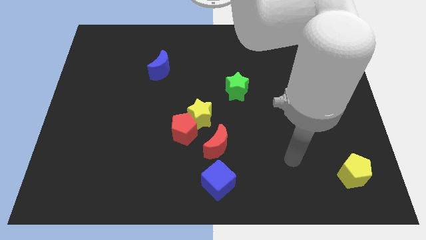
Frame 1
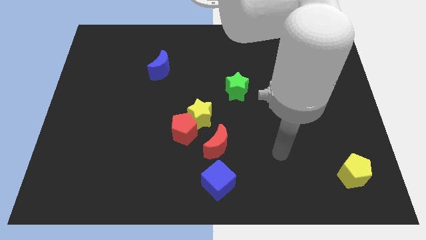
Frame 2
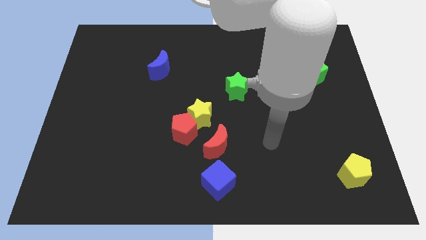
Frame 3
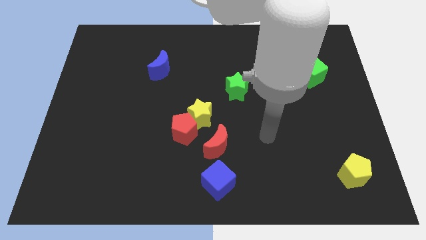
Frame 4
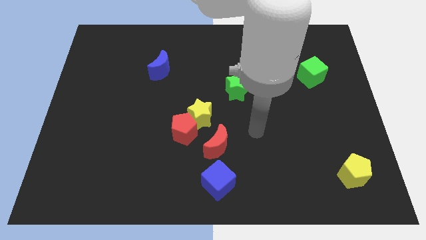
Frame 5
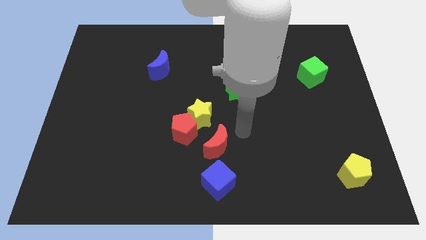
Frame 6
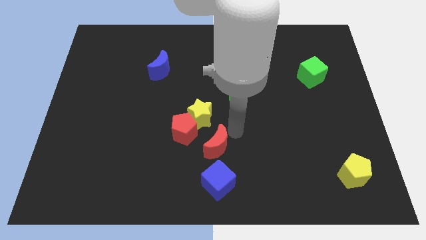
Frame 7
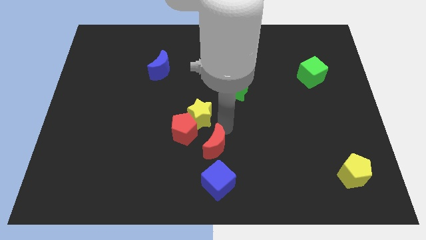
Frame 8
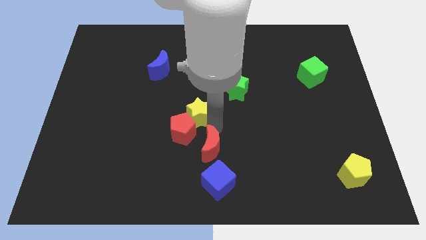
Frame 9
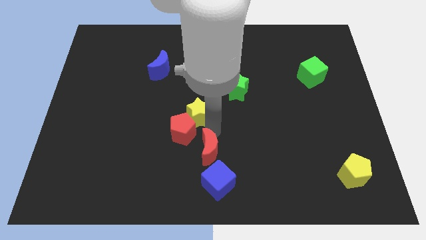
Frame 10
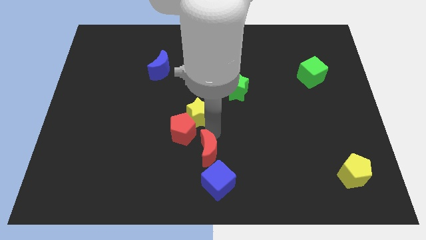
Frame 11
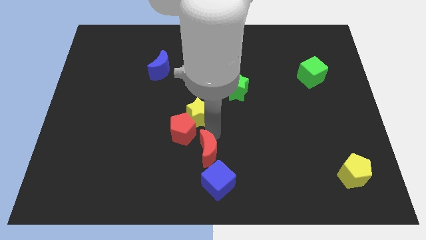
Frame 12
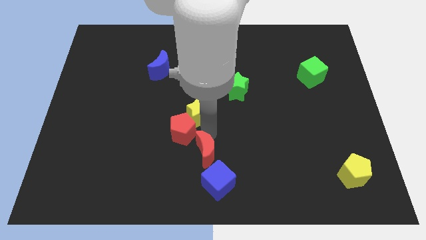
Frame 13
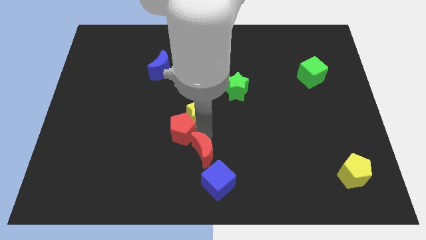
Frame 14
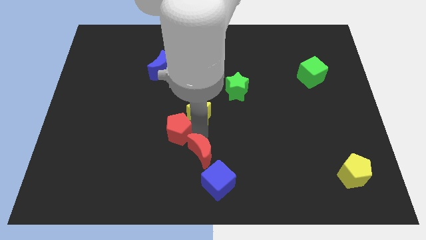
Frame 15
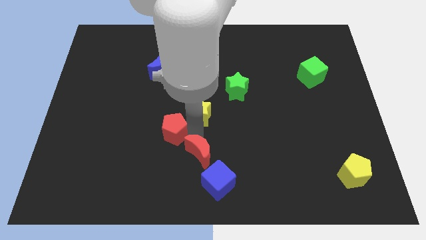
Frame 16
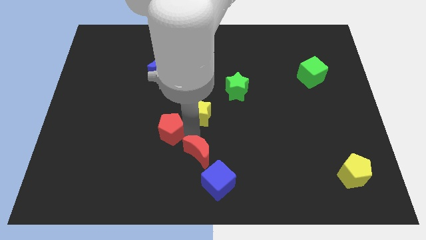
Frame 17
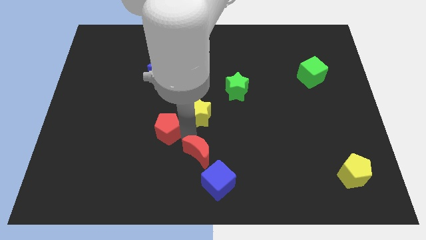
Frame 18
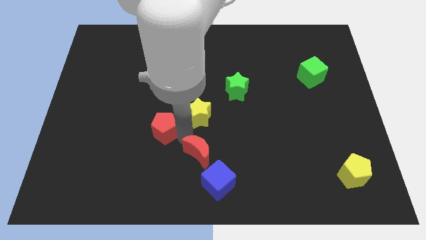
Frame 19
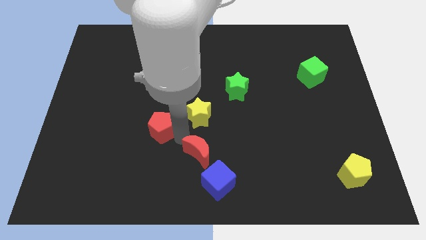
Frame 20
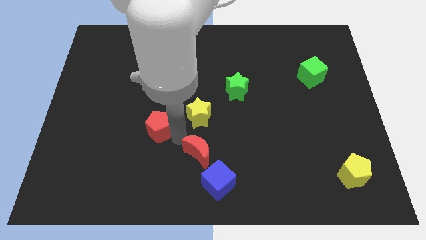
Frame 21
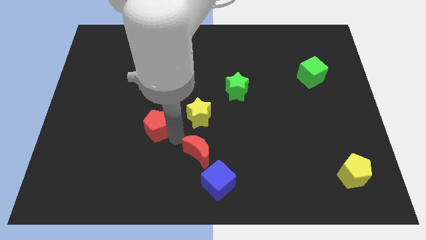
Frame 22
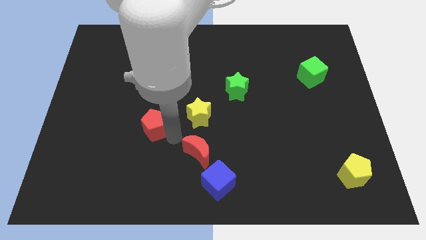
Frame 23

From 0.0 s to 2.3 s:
separate the red pentagon from the yellow star and red moon

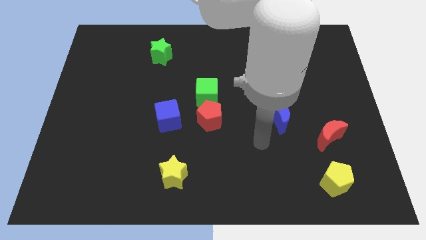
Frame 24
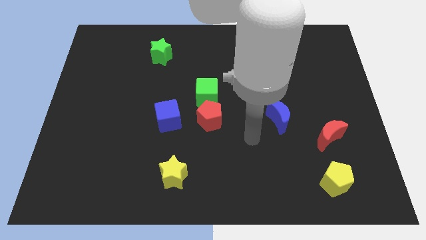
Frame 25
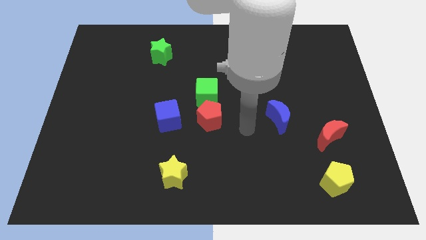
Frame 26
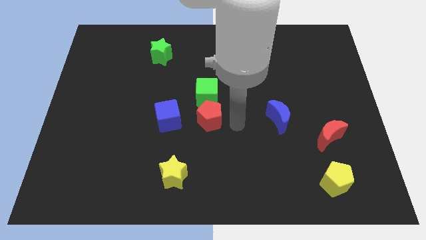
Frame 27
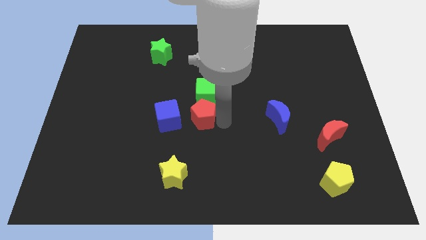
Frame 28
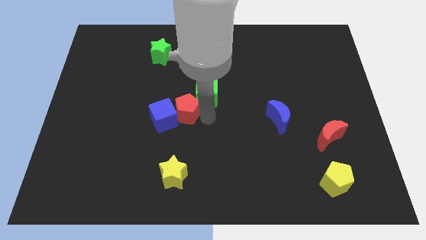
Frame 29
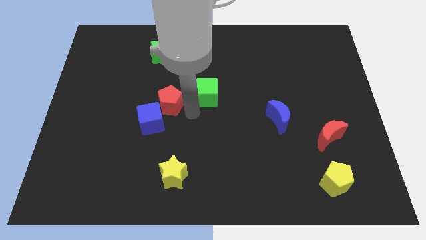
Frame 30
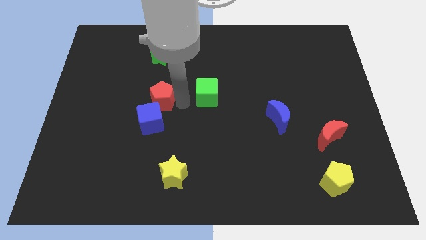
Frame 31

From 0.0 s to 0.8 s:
pull the green cube apart from the red pentagon

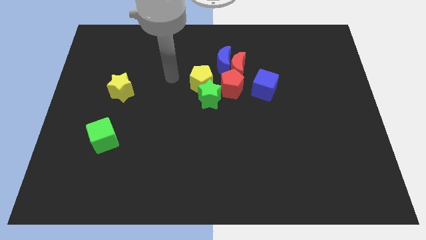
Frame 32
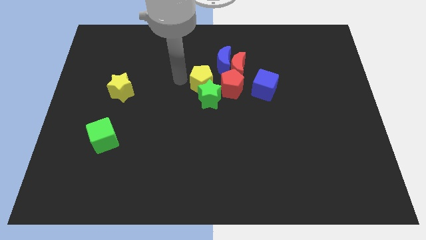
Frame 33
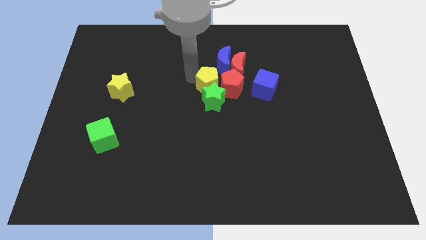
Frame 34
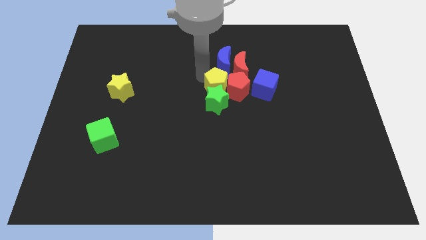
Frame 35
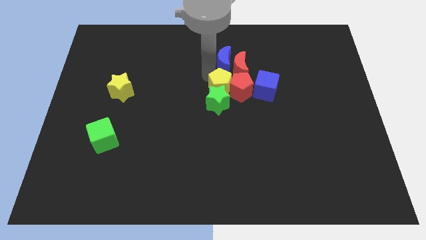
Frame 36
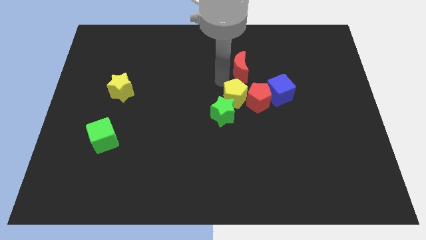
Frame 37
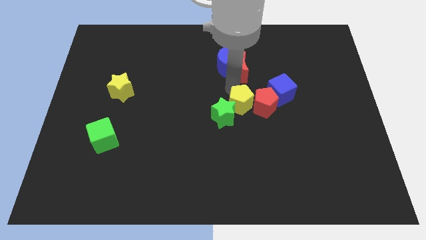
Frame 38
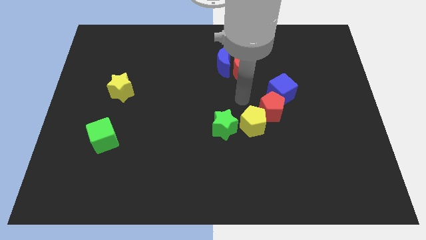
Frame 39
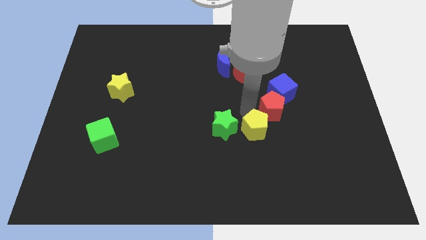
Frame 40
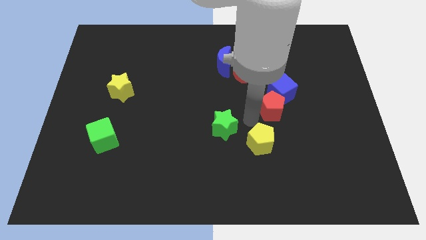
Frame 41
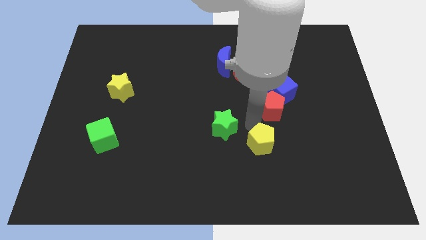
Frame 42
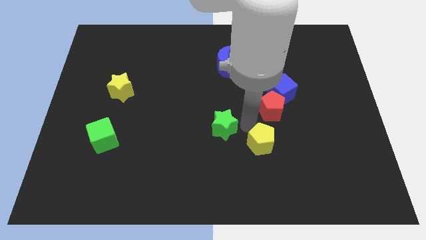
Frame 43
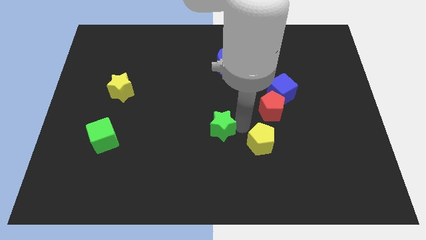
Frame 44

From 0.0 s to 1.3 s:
pull the green star apart from the yellow pentagon and red pentagon

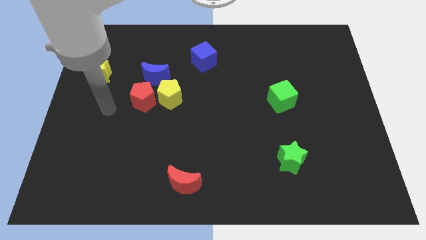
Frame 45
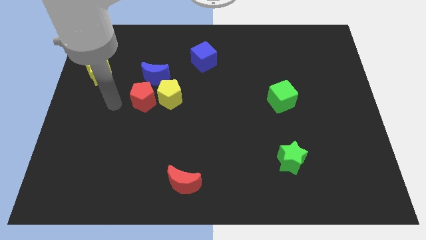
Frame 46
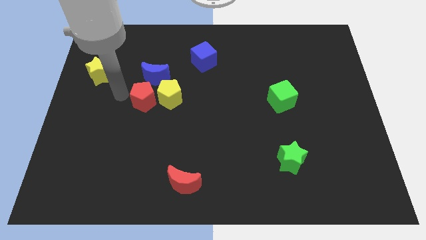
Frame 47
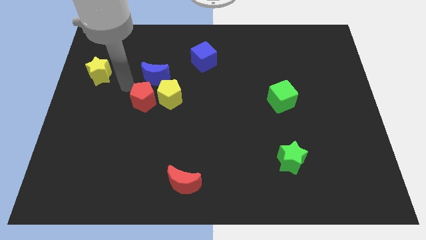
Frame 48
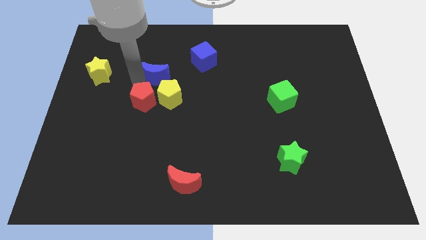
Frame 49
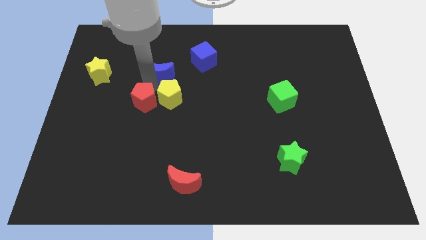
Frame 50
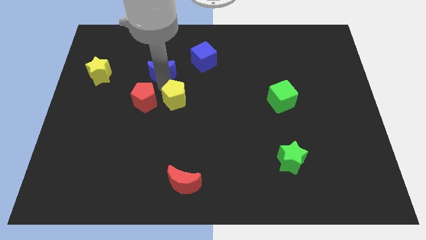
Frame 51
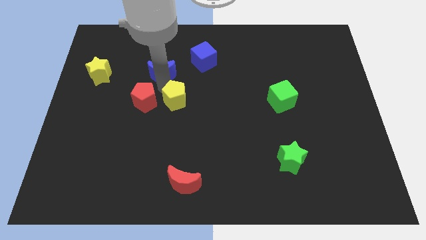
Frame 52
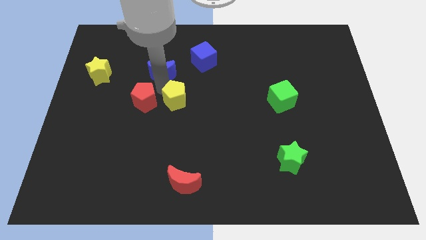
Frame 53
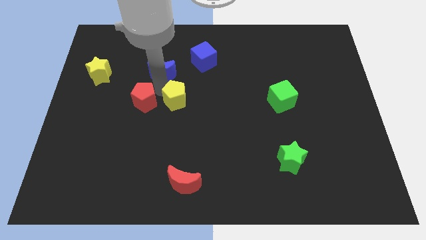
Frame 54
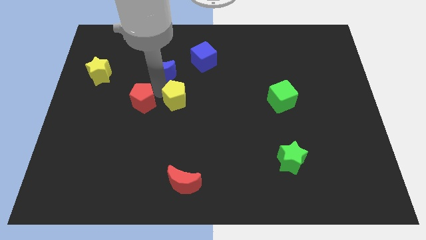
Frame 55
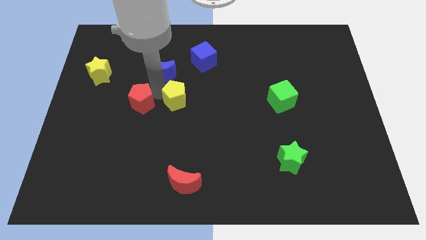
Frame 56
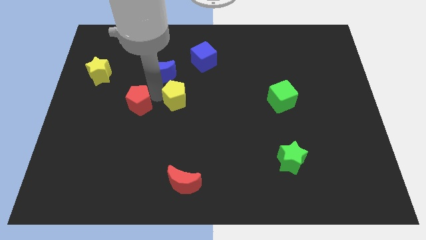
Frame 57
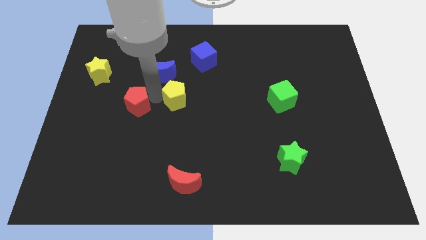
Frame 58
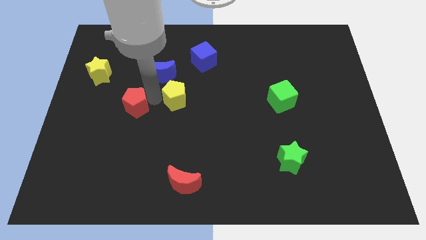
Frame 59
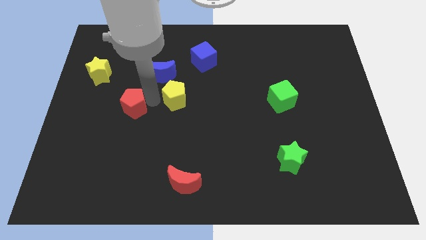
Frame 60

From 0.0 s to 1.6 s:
move the red pentagon away from the yellow pentagon and blue moon

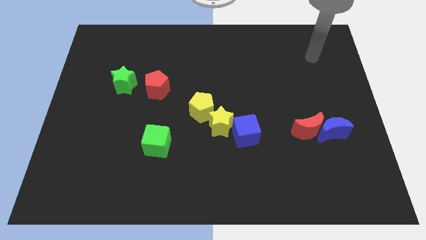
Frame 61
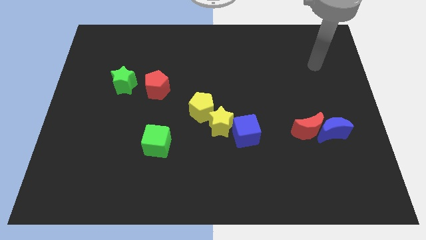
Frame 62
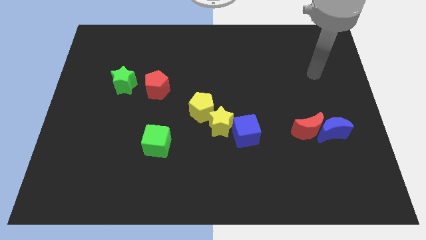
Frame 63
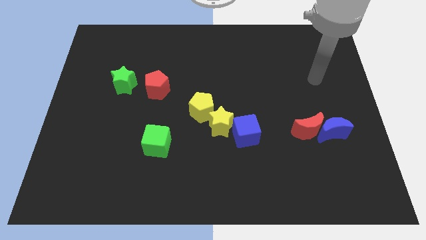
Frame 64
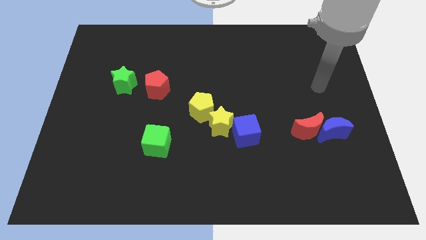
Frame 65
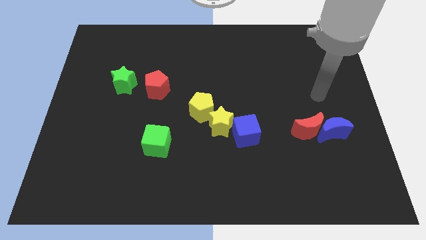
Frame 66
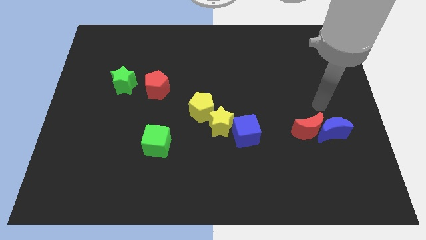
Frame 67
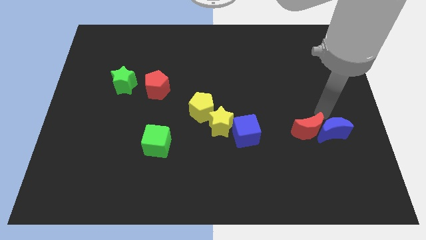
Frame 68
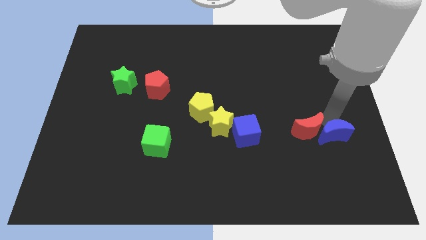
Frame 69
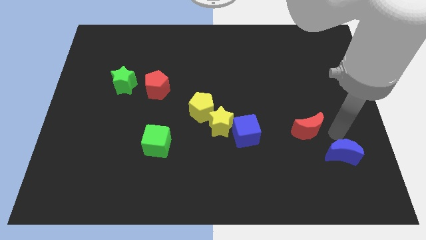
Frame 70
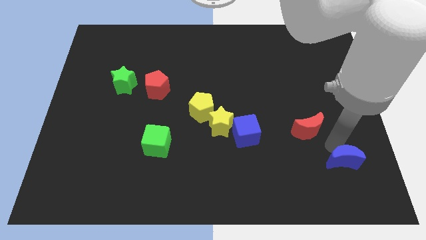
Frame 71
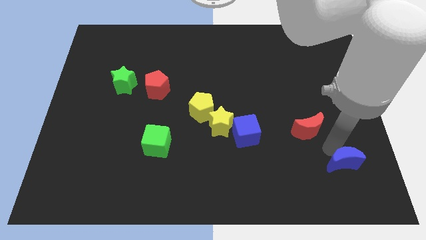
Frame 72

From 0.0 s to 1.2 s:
pull the red moon apart from the blue moon

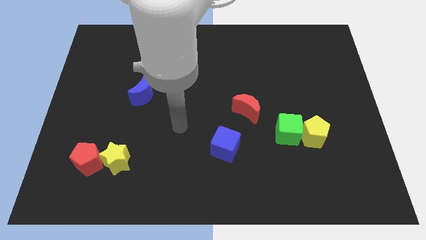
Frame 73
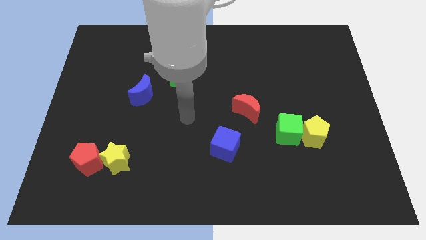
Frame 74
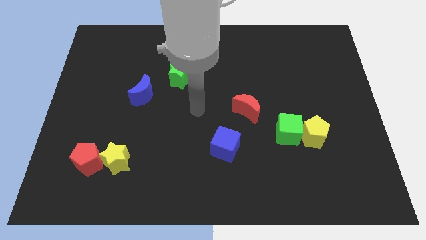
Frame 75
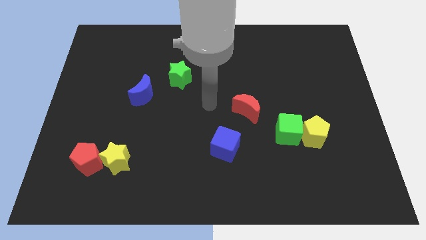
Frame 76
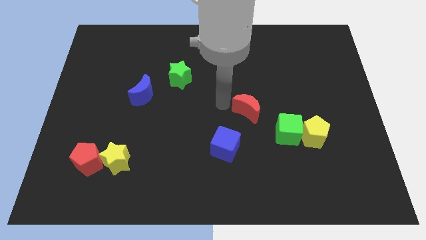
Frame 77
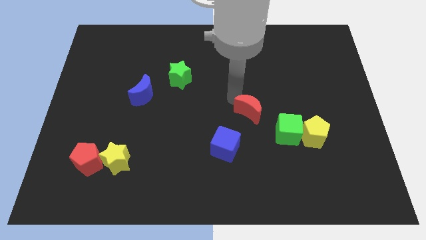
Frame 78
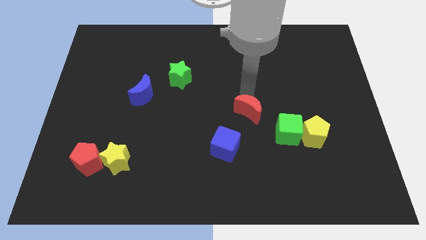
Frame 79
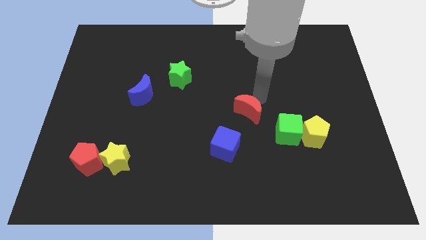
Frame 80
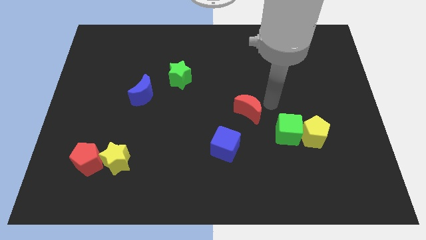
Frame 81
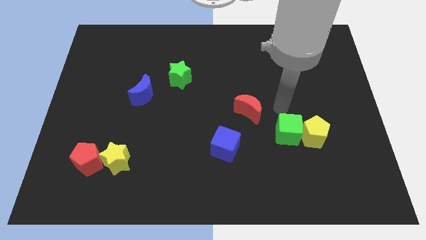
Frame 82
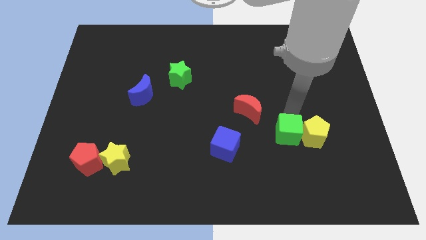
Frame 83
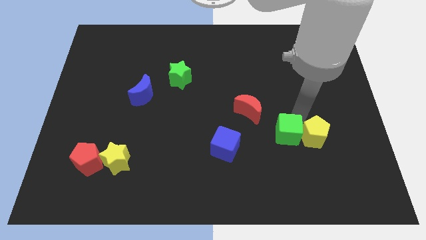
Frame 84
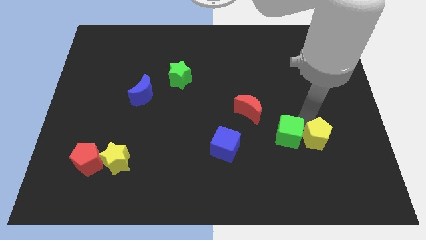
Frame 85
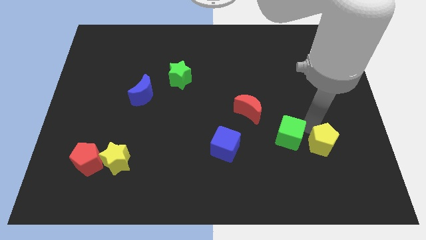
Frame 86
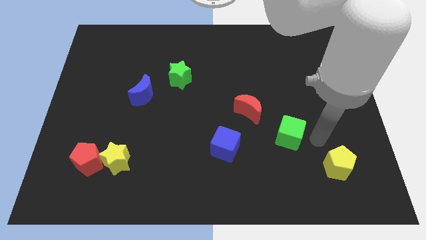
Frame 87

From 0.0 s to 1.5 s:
move the green cube away from the yellow pentagon

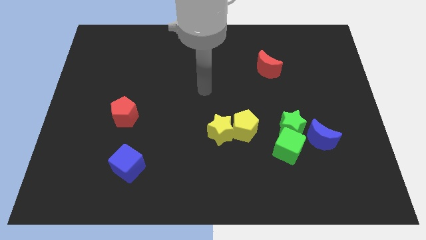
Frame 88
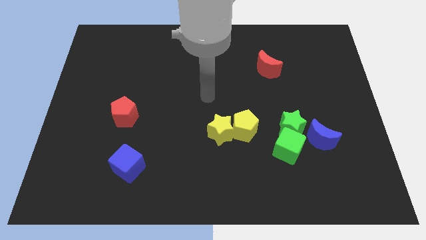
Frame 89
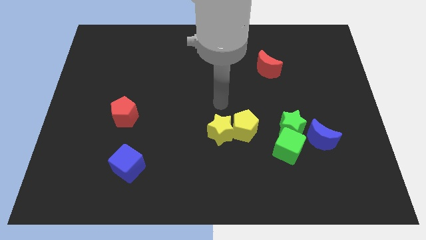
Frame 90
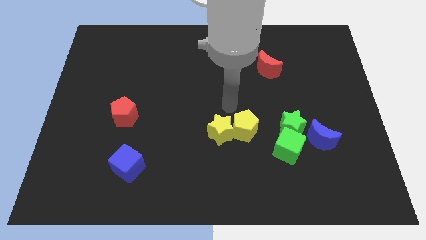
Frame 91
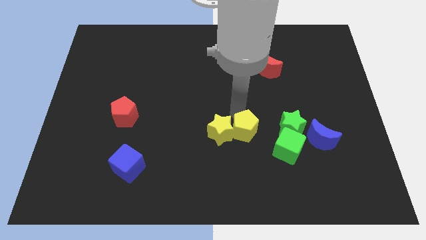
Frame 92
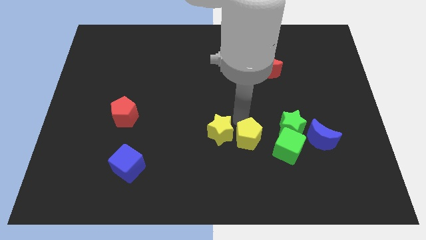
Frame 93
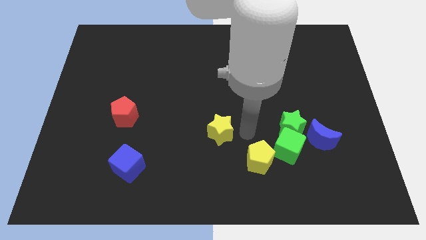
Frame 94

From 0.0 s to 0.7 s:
move the yellow star away from the yellow pentagon

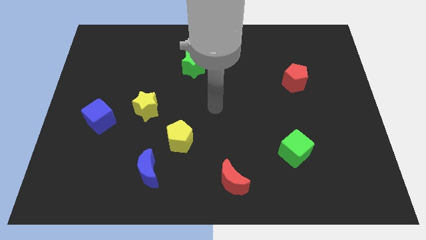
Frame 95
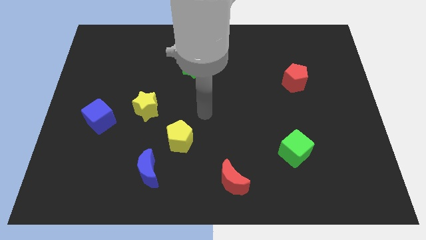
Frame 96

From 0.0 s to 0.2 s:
move the blue moon away from the yellow pentagon
